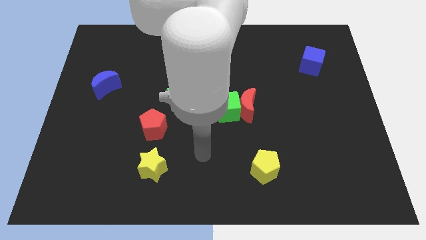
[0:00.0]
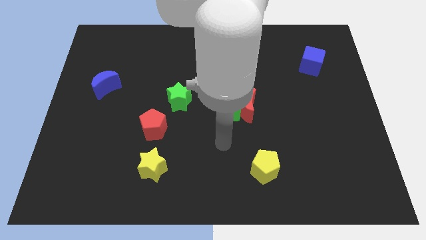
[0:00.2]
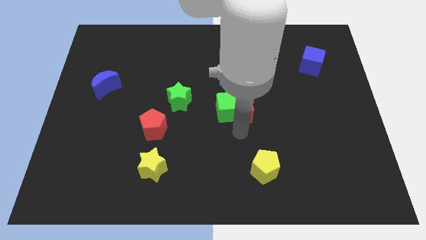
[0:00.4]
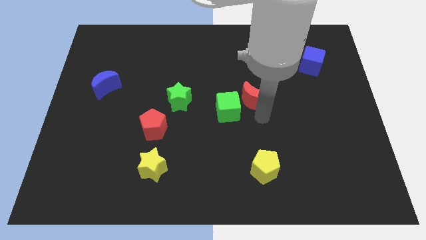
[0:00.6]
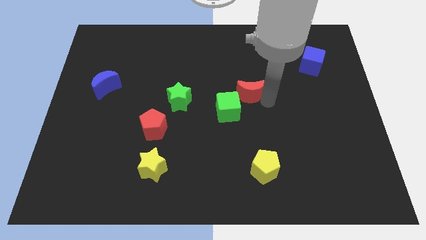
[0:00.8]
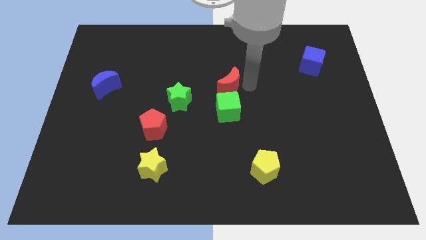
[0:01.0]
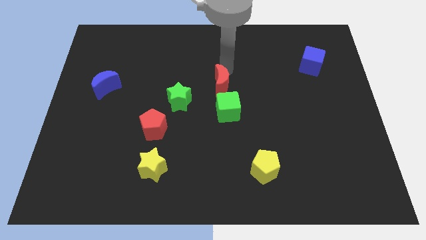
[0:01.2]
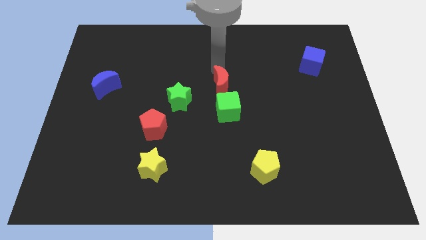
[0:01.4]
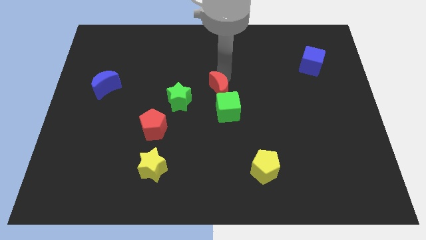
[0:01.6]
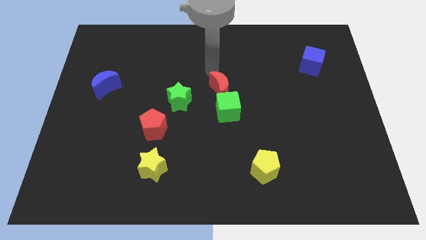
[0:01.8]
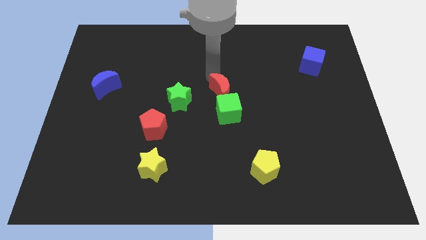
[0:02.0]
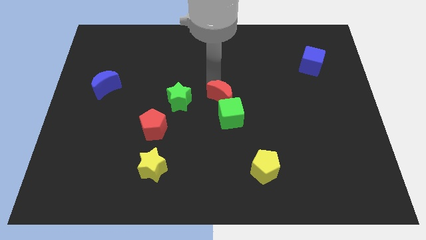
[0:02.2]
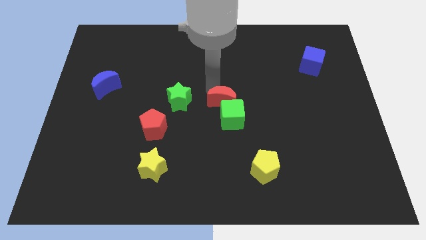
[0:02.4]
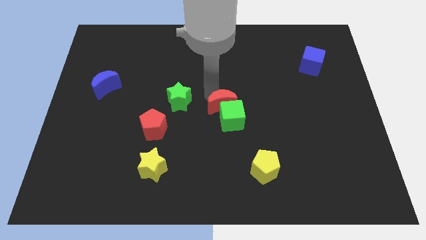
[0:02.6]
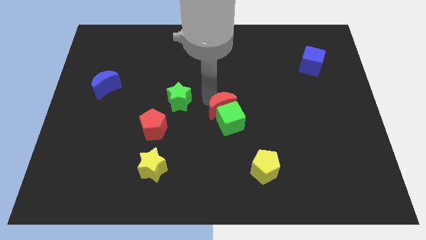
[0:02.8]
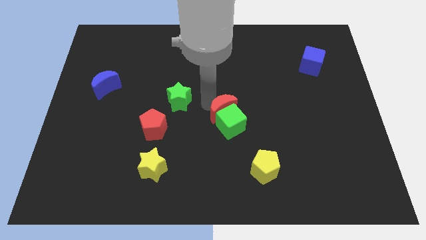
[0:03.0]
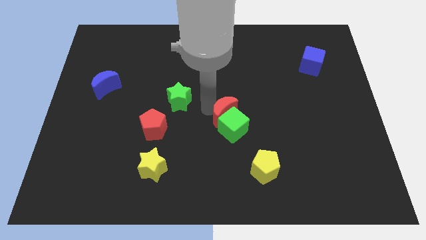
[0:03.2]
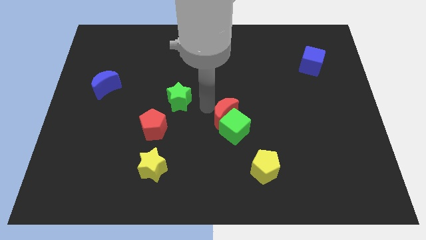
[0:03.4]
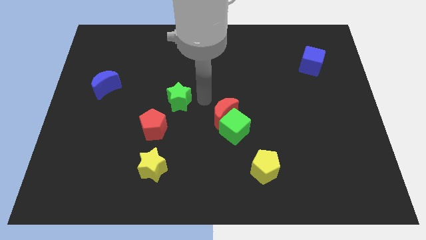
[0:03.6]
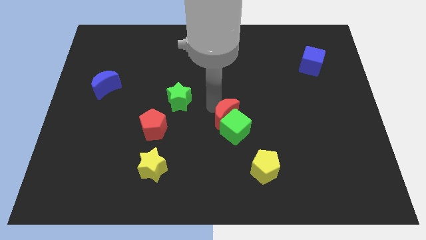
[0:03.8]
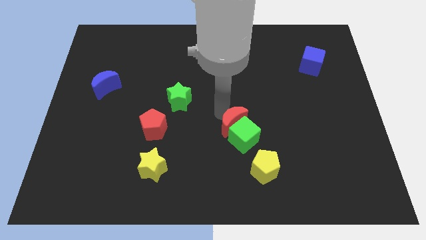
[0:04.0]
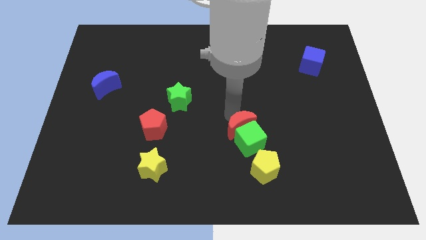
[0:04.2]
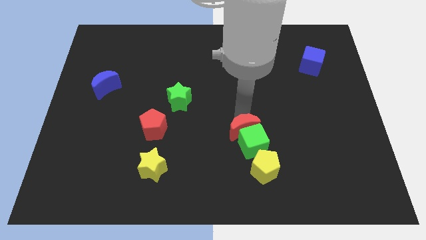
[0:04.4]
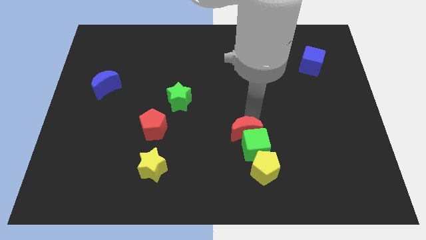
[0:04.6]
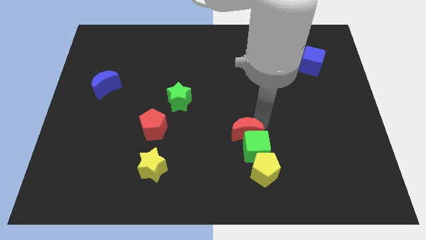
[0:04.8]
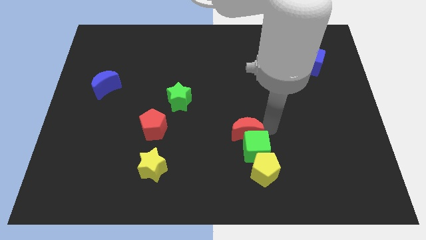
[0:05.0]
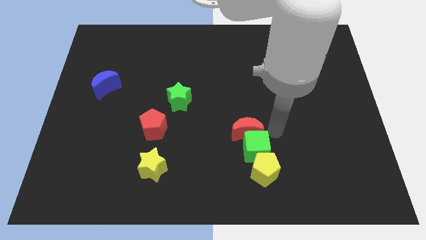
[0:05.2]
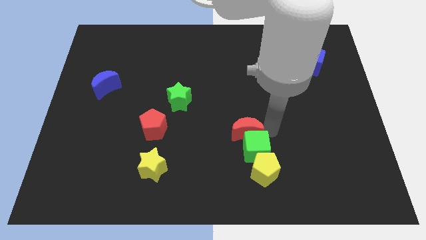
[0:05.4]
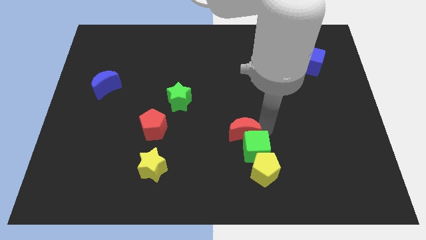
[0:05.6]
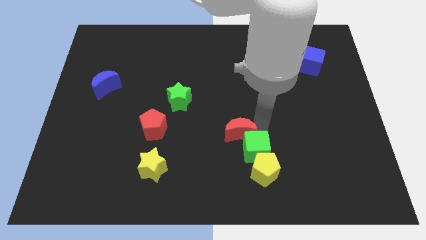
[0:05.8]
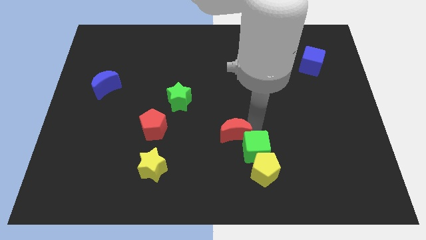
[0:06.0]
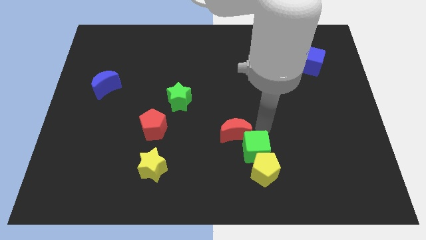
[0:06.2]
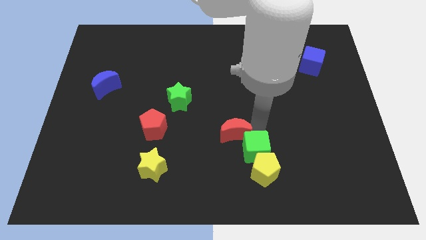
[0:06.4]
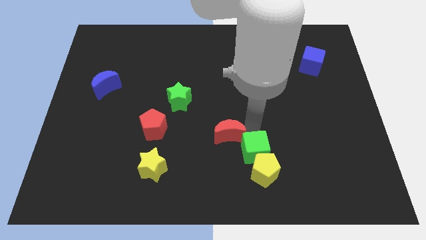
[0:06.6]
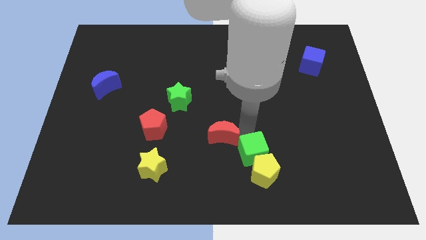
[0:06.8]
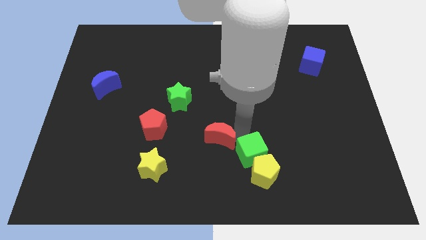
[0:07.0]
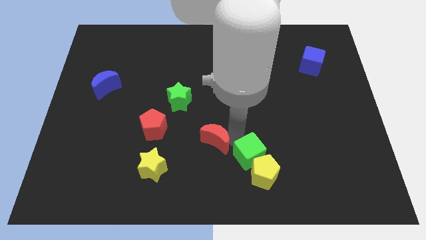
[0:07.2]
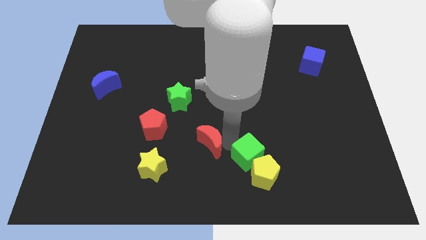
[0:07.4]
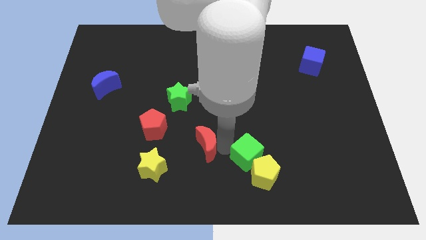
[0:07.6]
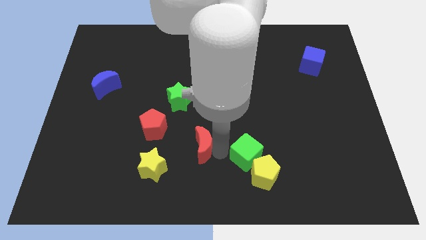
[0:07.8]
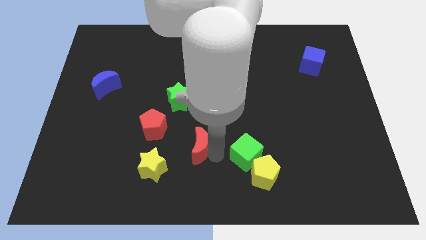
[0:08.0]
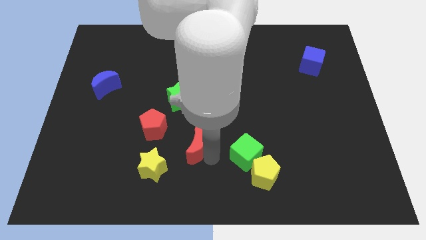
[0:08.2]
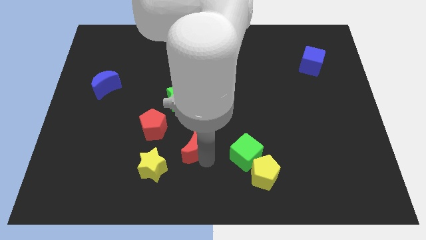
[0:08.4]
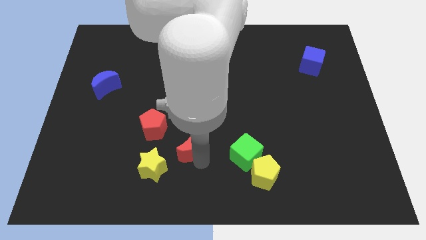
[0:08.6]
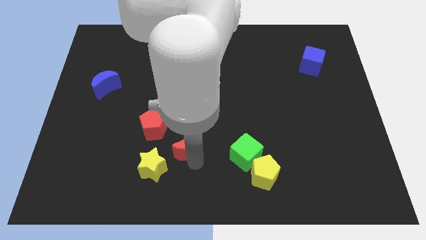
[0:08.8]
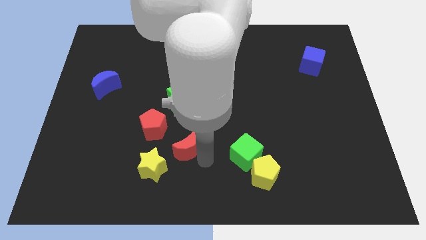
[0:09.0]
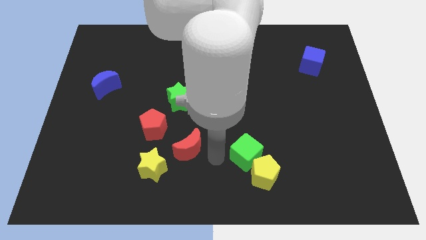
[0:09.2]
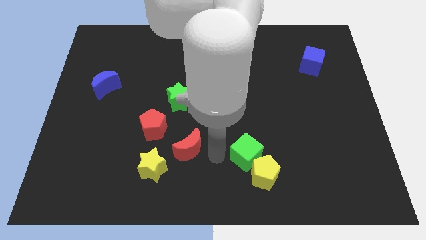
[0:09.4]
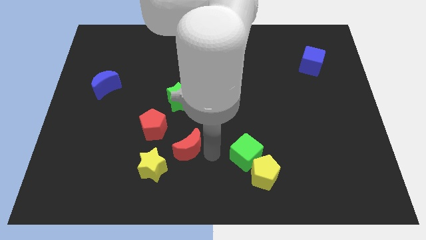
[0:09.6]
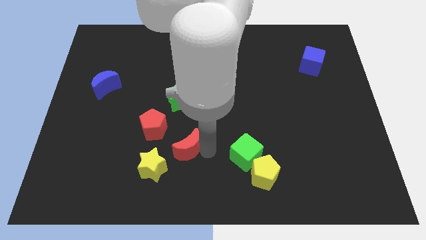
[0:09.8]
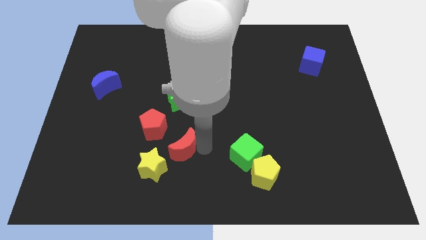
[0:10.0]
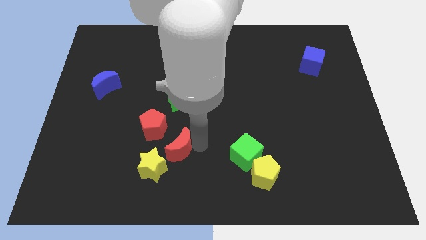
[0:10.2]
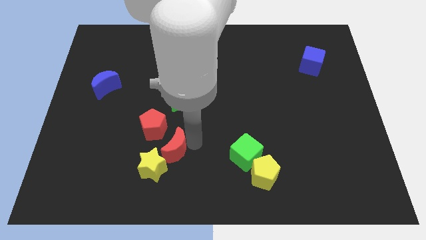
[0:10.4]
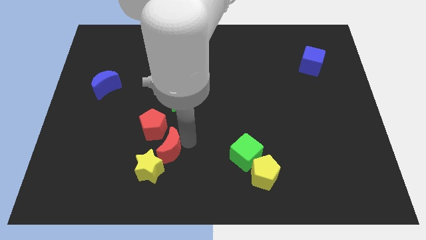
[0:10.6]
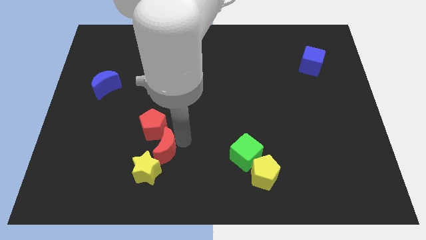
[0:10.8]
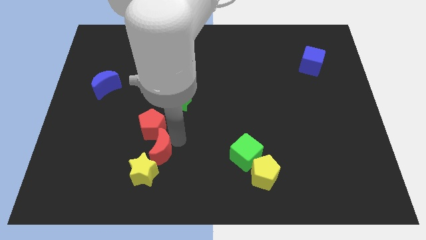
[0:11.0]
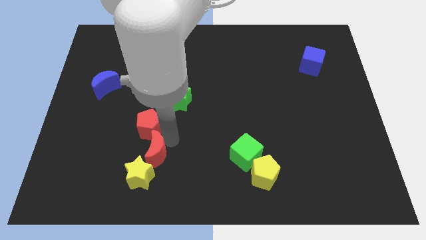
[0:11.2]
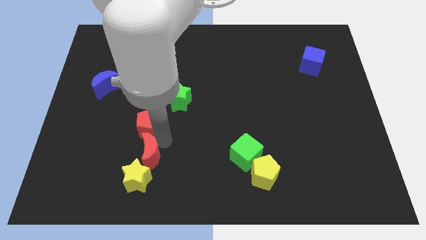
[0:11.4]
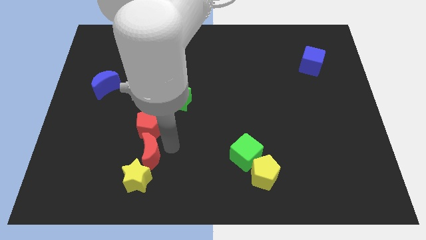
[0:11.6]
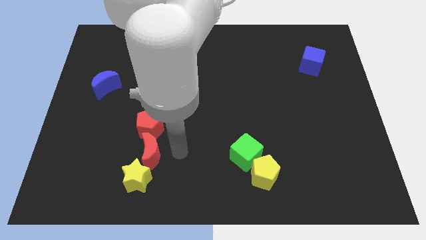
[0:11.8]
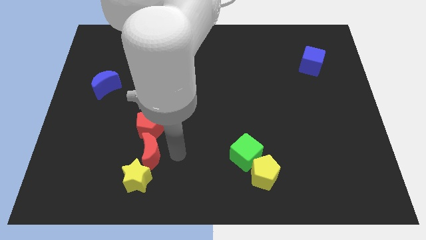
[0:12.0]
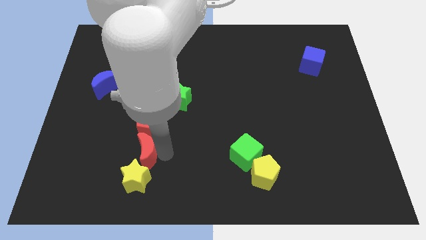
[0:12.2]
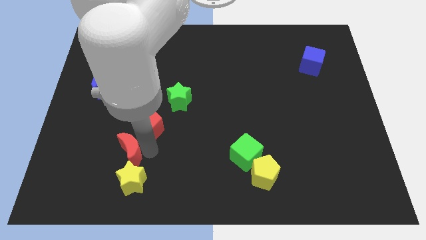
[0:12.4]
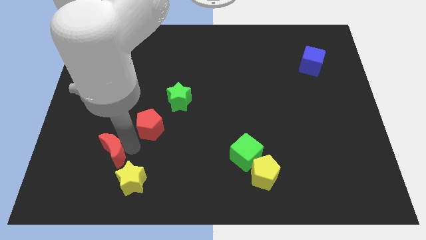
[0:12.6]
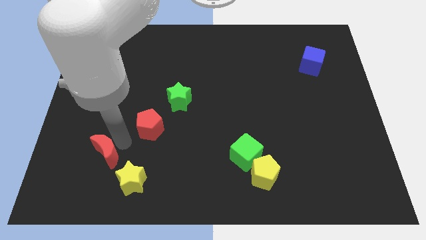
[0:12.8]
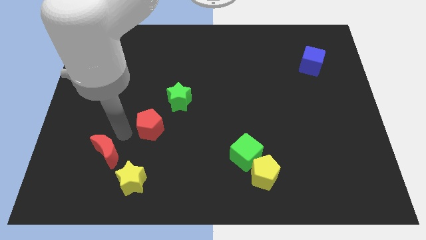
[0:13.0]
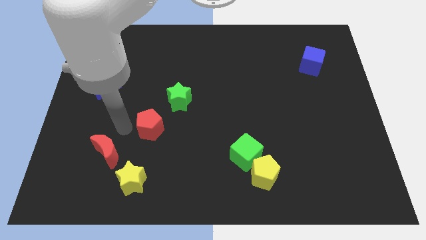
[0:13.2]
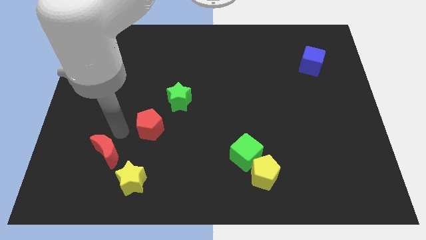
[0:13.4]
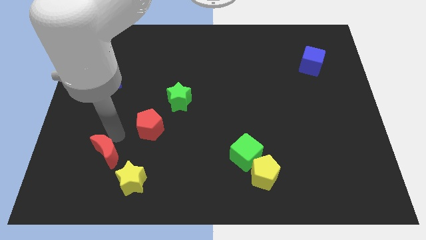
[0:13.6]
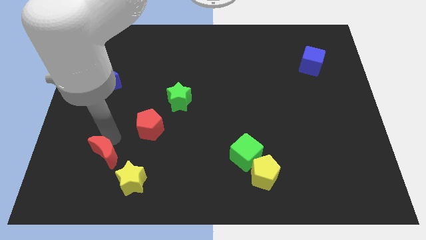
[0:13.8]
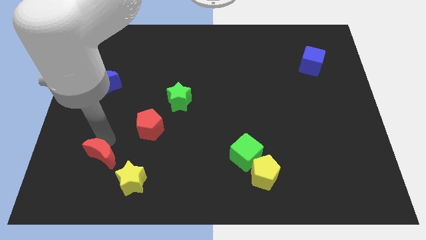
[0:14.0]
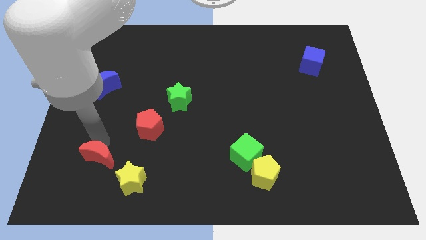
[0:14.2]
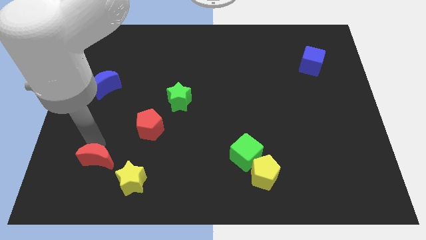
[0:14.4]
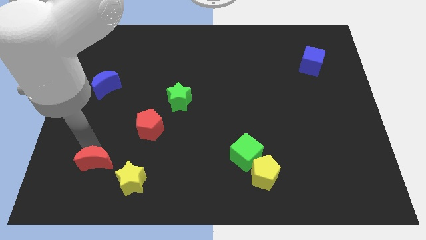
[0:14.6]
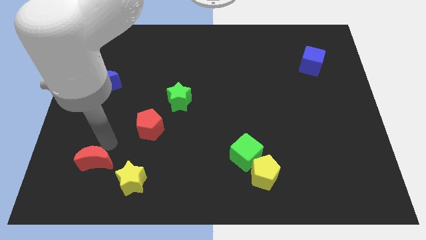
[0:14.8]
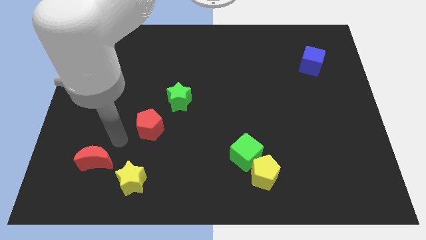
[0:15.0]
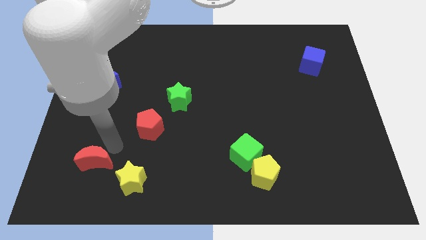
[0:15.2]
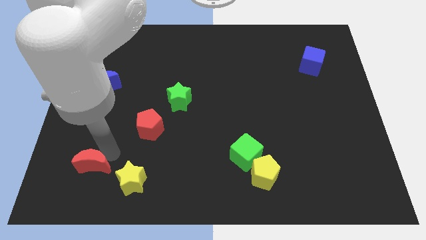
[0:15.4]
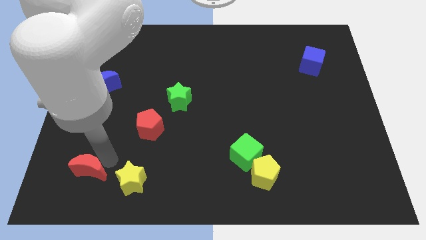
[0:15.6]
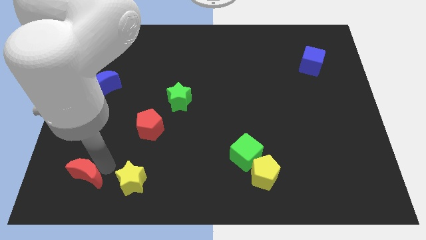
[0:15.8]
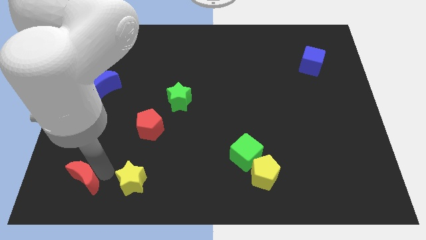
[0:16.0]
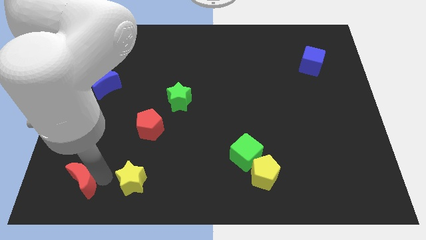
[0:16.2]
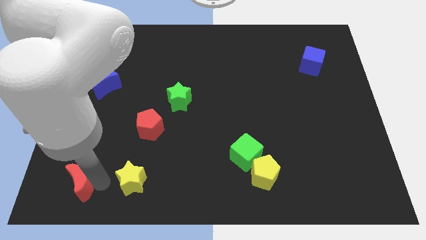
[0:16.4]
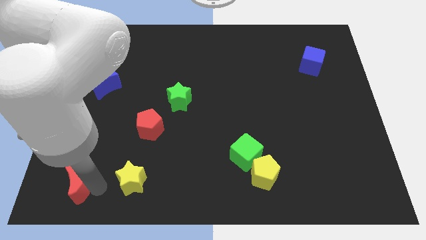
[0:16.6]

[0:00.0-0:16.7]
slide the red moon to the bottom left
